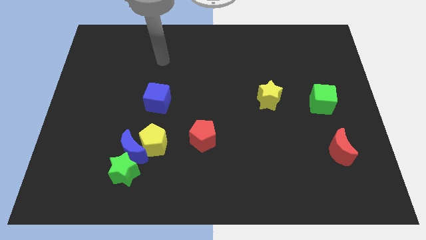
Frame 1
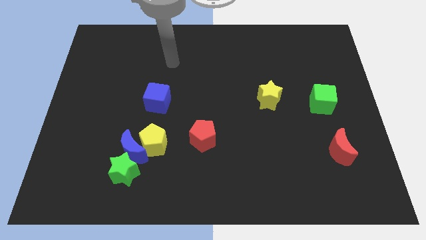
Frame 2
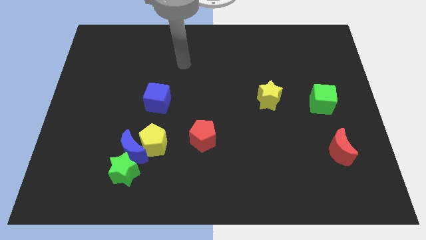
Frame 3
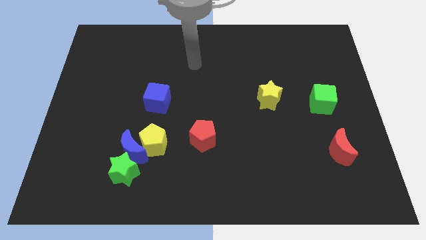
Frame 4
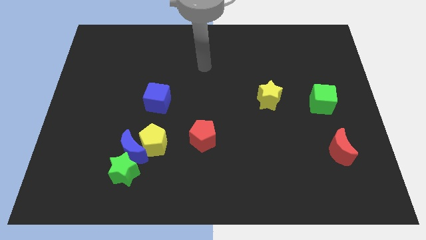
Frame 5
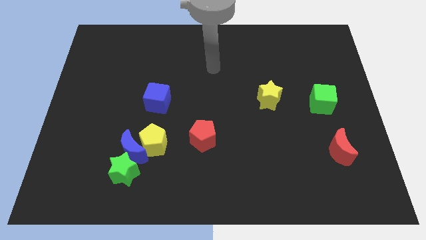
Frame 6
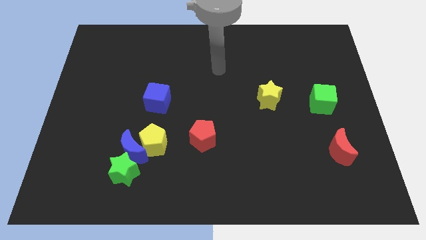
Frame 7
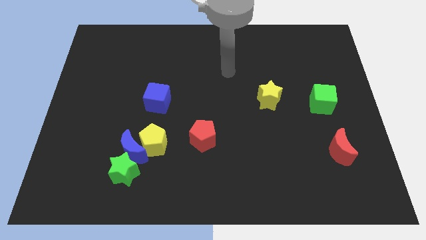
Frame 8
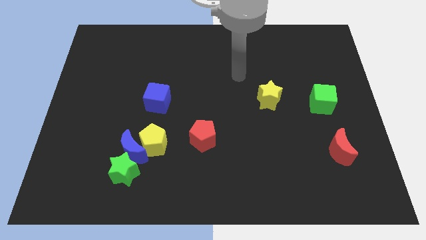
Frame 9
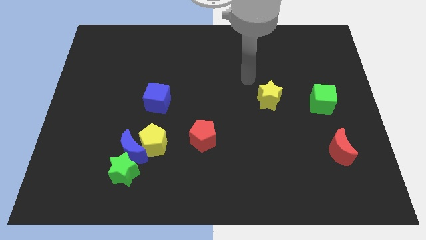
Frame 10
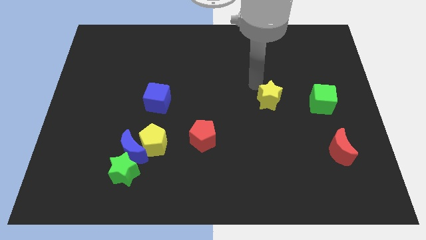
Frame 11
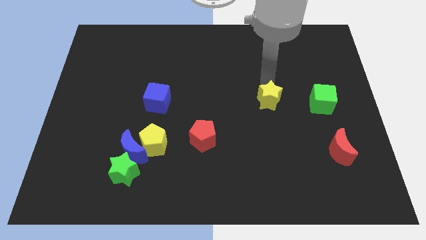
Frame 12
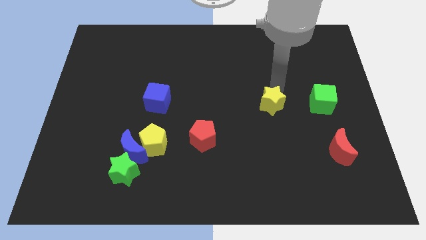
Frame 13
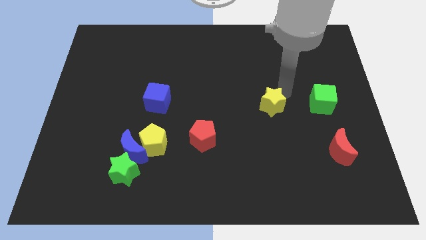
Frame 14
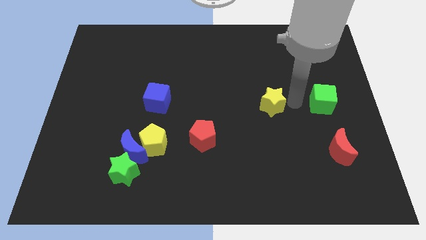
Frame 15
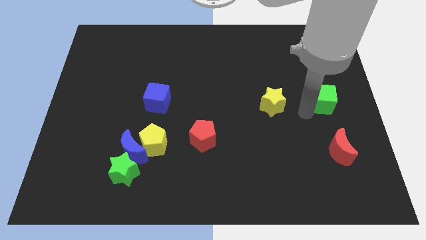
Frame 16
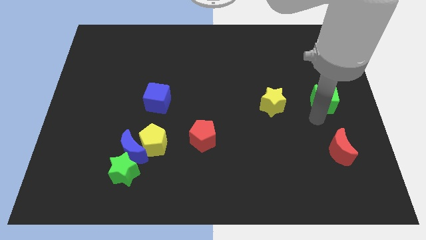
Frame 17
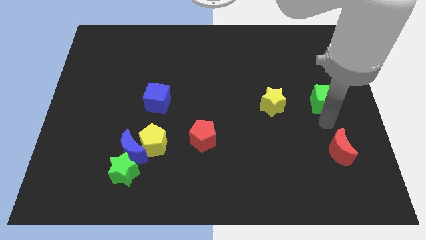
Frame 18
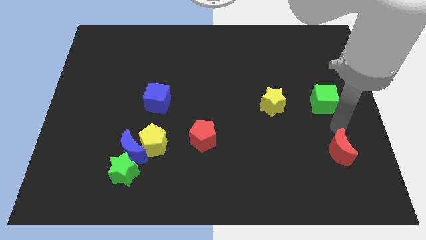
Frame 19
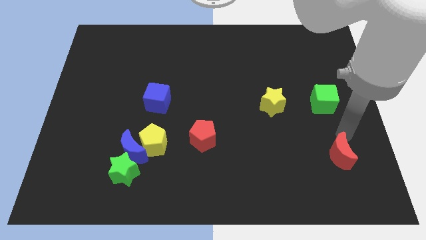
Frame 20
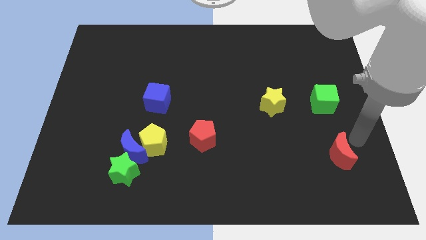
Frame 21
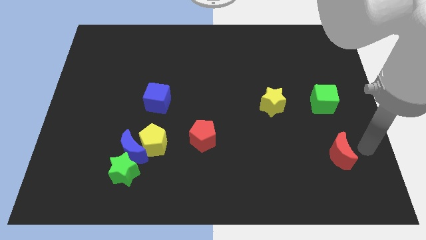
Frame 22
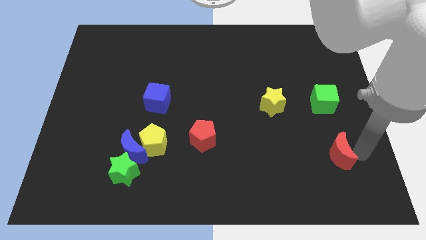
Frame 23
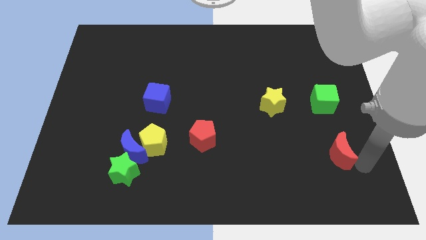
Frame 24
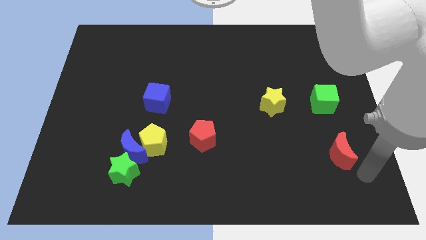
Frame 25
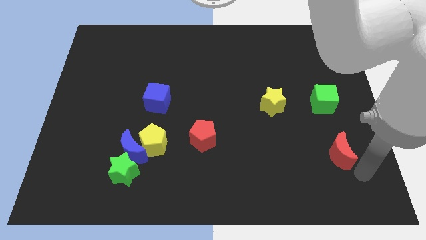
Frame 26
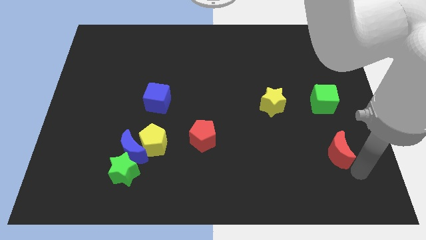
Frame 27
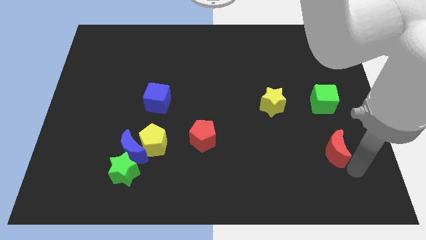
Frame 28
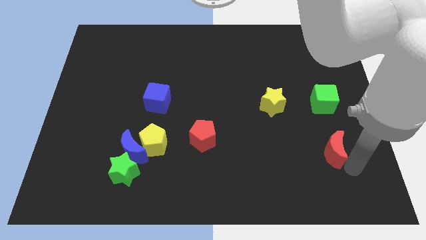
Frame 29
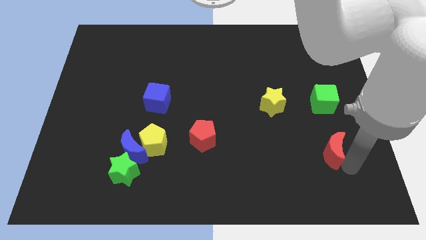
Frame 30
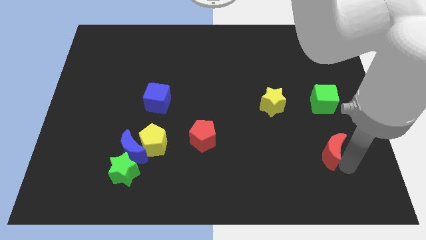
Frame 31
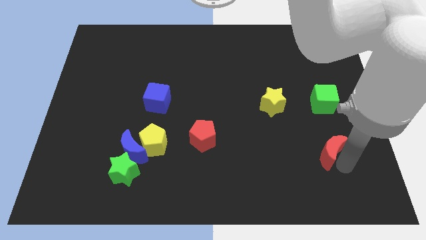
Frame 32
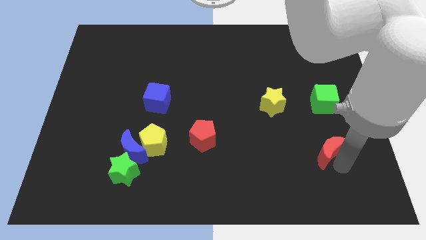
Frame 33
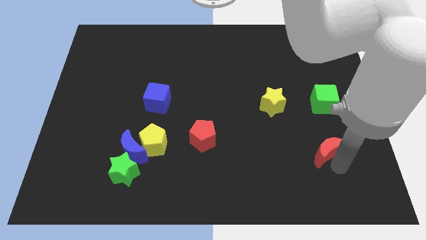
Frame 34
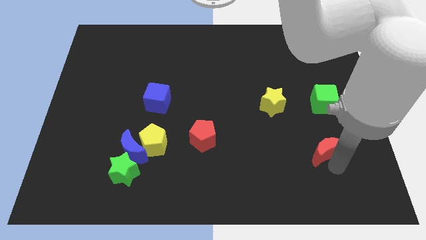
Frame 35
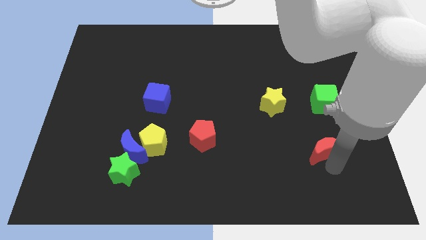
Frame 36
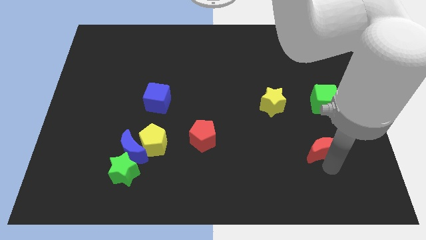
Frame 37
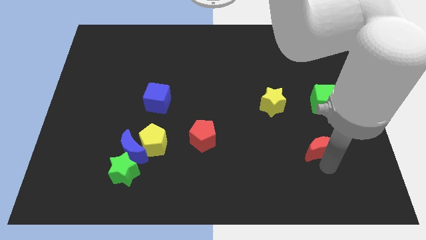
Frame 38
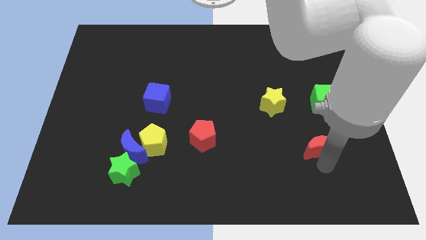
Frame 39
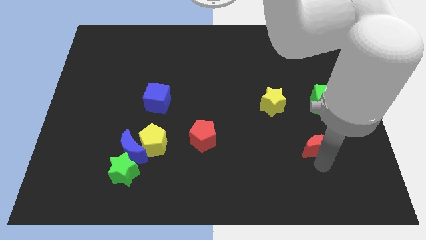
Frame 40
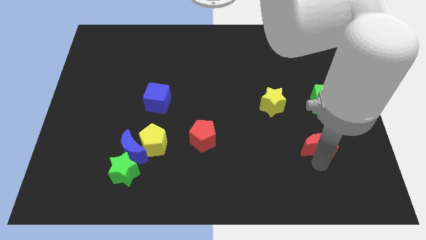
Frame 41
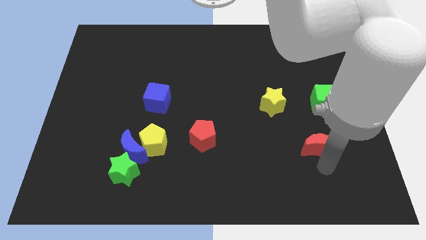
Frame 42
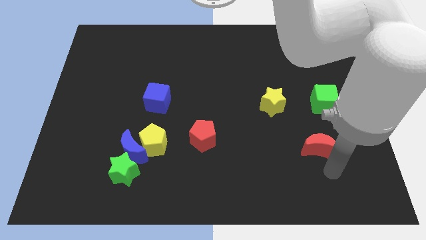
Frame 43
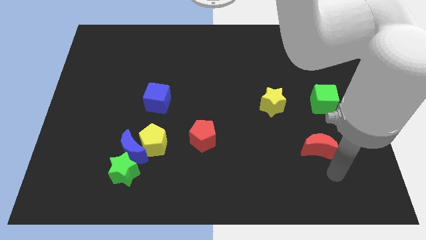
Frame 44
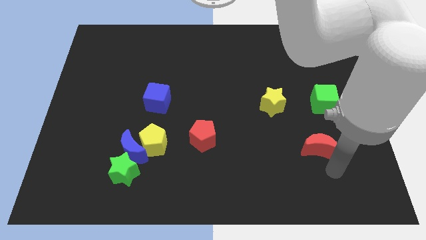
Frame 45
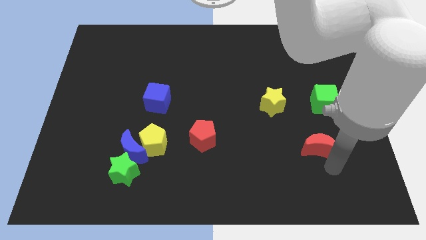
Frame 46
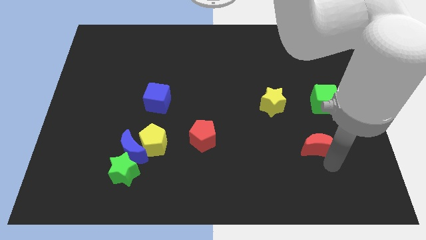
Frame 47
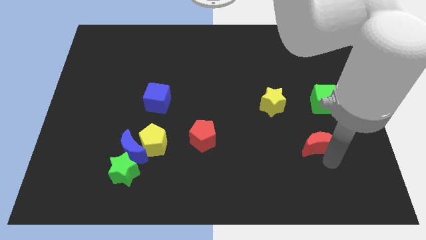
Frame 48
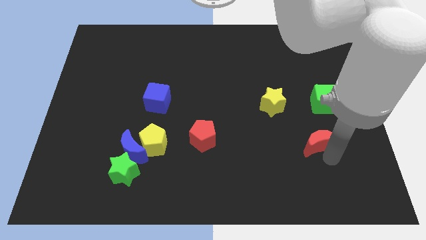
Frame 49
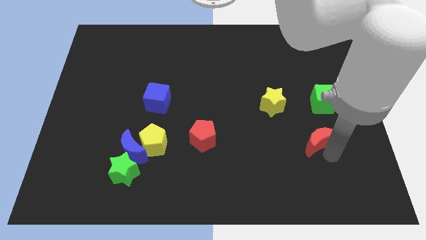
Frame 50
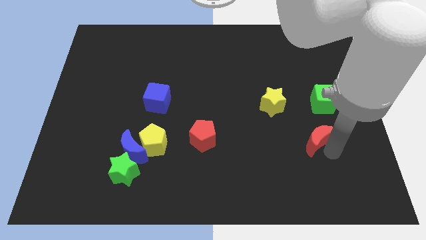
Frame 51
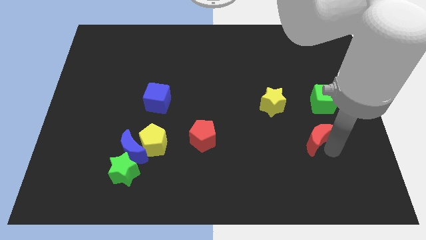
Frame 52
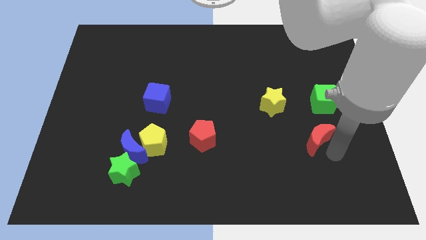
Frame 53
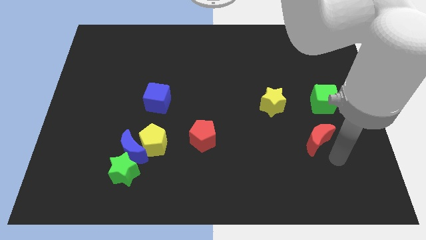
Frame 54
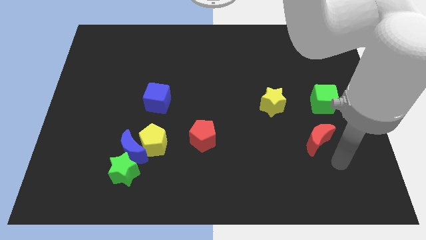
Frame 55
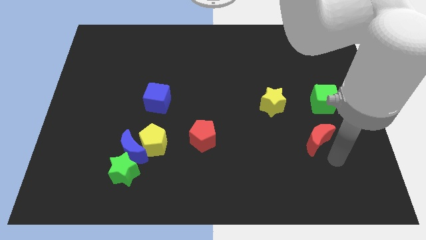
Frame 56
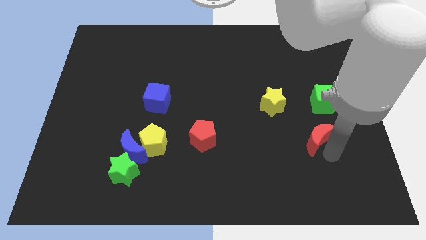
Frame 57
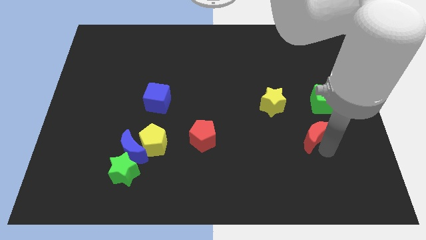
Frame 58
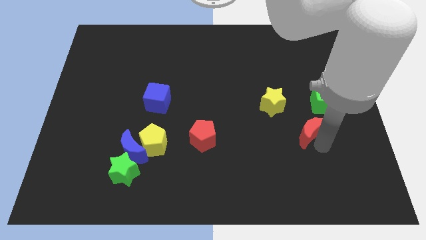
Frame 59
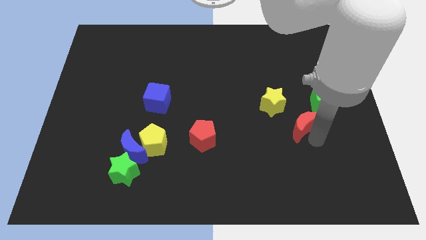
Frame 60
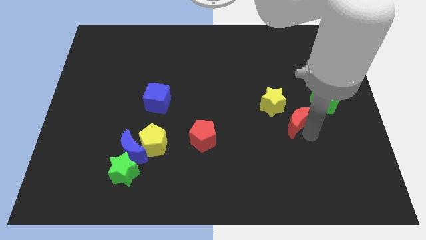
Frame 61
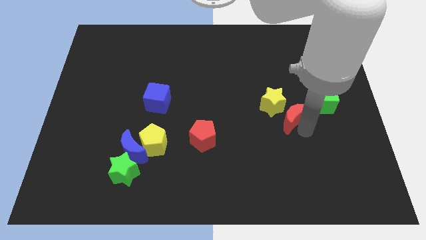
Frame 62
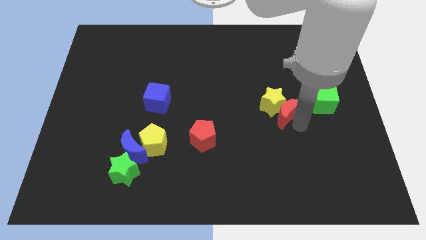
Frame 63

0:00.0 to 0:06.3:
push the red moon close to the yellow star

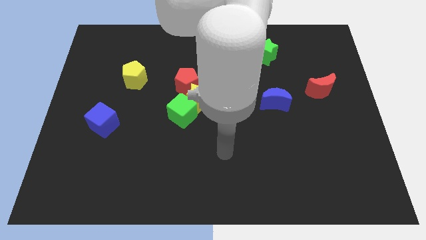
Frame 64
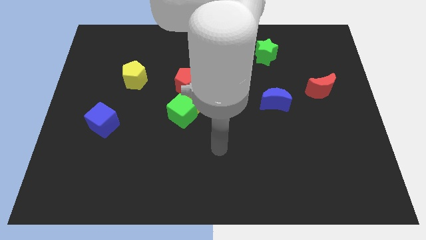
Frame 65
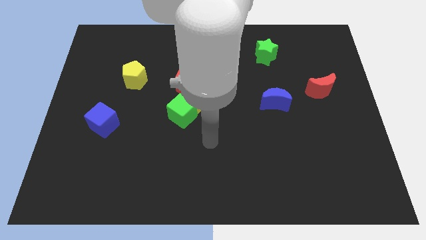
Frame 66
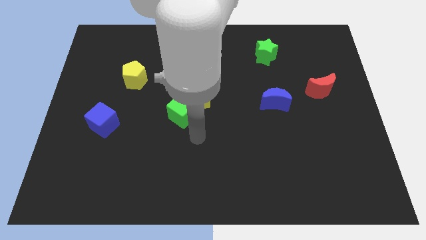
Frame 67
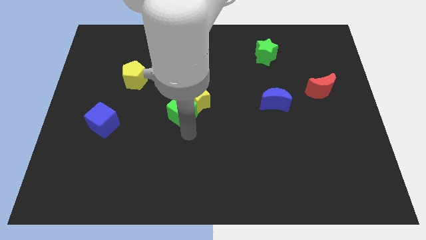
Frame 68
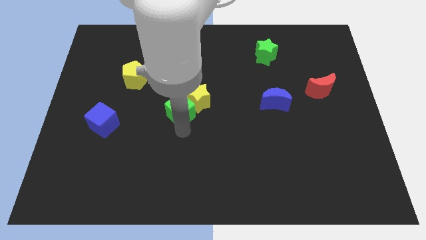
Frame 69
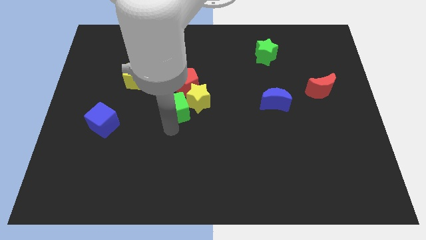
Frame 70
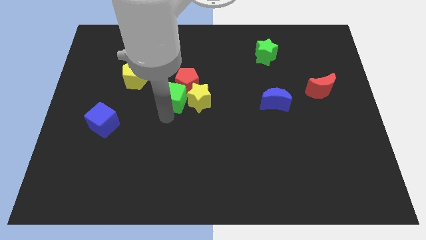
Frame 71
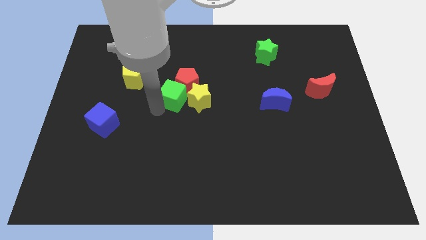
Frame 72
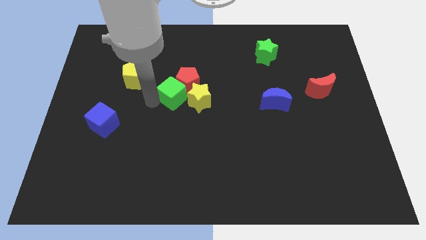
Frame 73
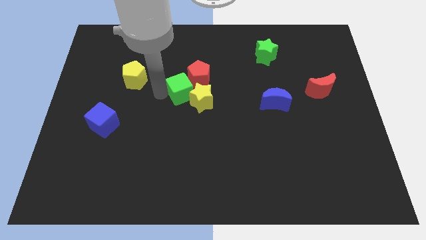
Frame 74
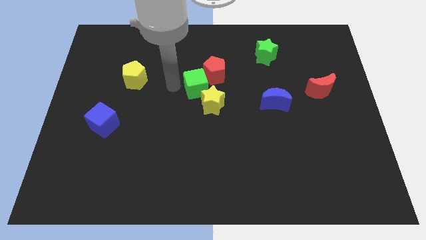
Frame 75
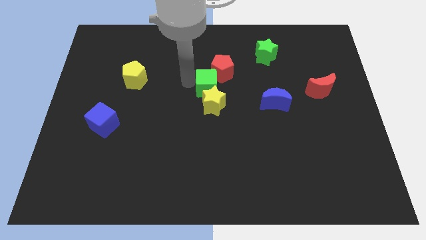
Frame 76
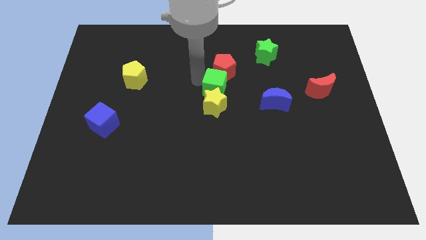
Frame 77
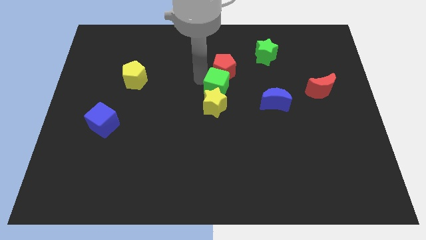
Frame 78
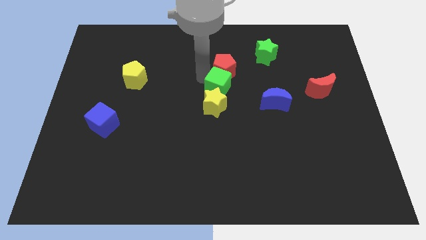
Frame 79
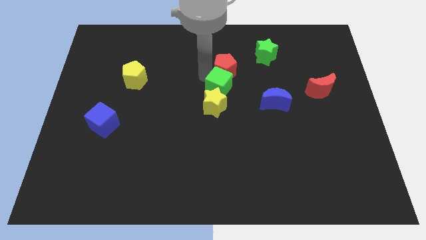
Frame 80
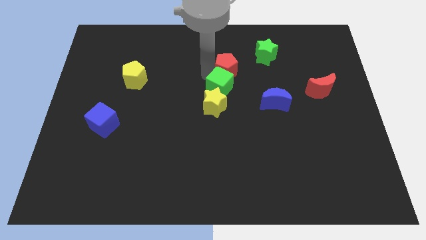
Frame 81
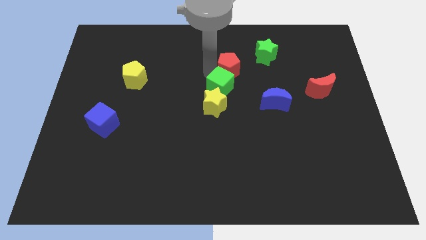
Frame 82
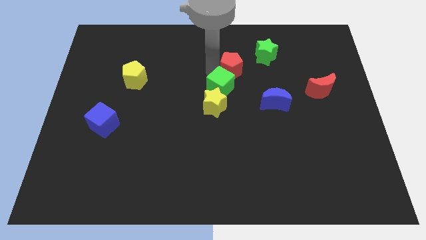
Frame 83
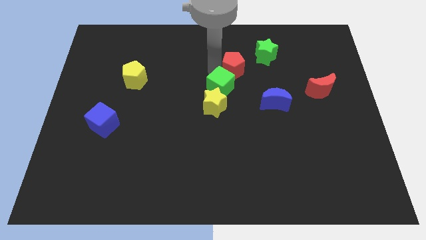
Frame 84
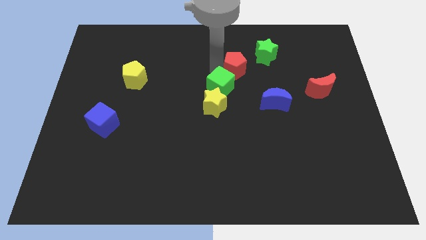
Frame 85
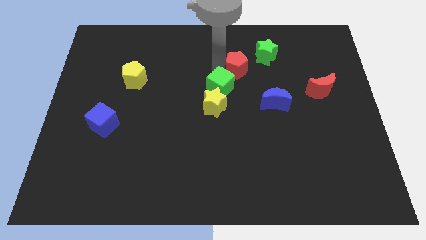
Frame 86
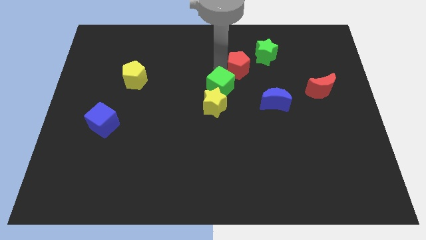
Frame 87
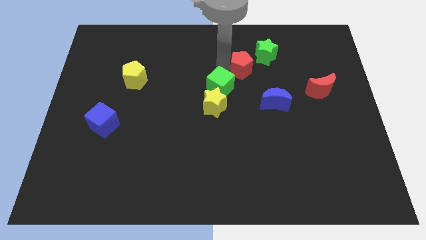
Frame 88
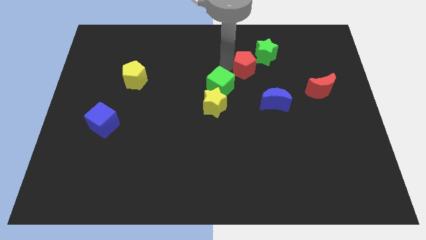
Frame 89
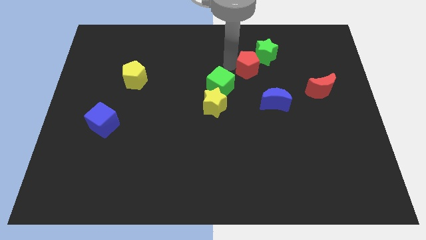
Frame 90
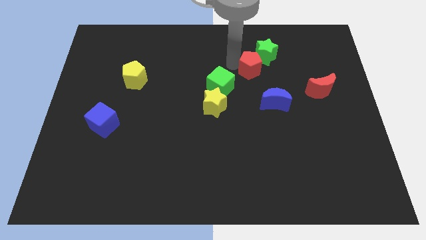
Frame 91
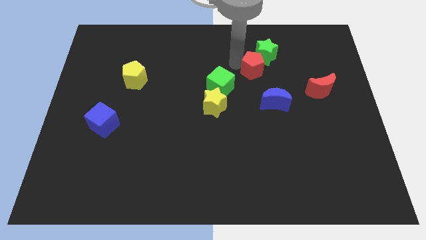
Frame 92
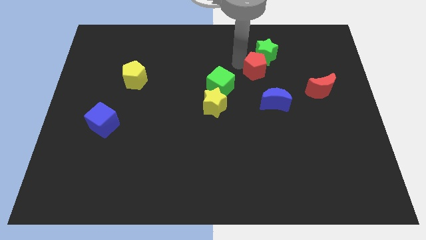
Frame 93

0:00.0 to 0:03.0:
move the red pentagon close to the green star
